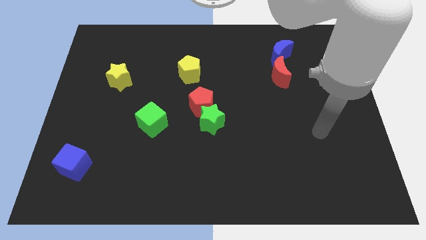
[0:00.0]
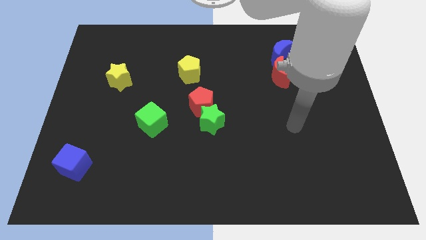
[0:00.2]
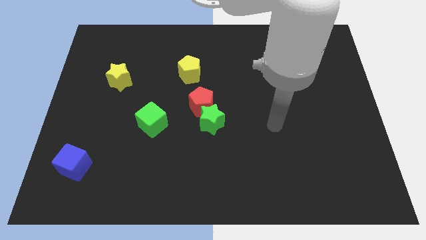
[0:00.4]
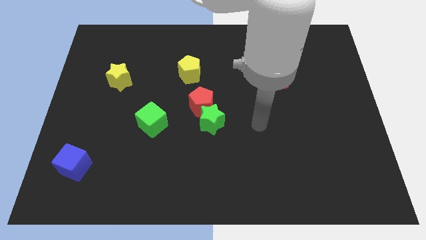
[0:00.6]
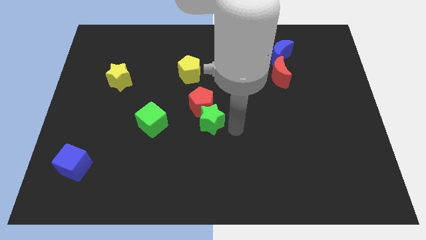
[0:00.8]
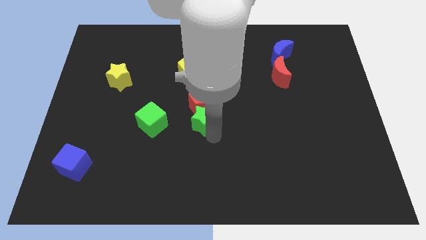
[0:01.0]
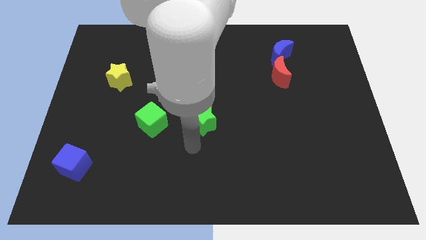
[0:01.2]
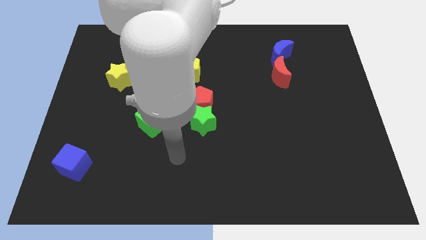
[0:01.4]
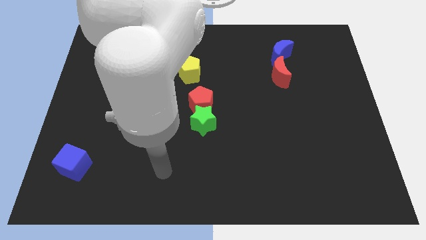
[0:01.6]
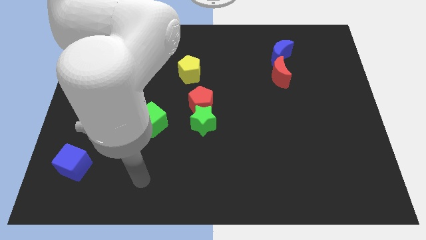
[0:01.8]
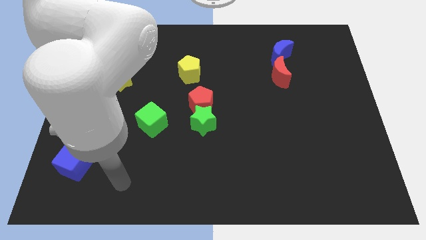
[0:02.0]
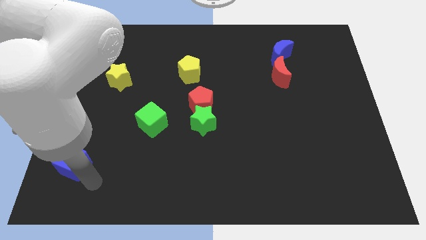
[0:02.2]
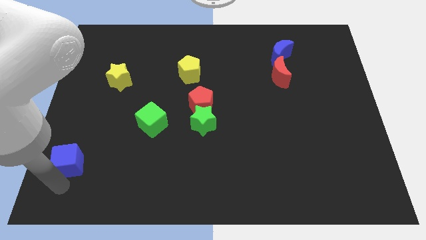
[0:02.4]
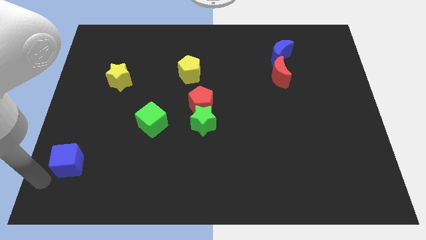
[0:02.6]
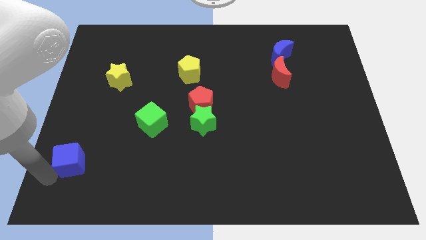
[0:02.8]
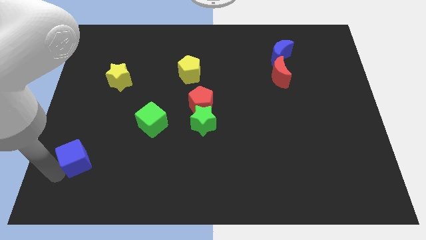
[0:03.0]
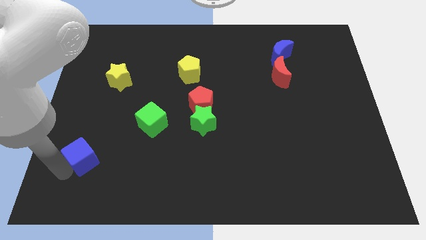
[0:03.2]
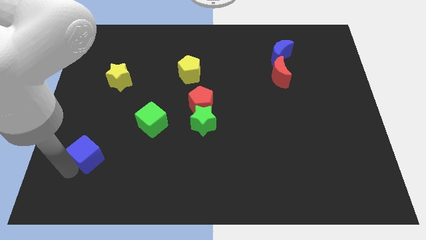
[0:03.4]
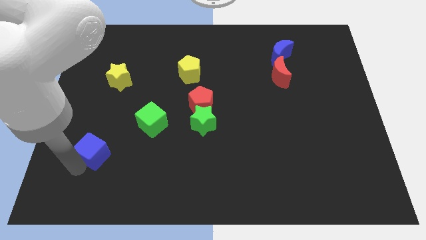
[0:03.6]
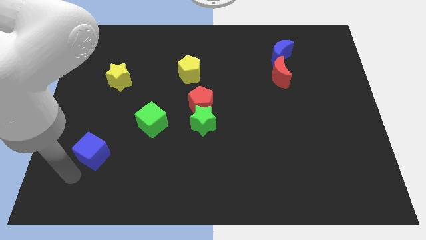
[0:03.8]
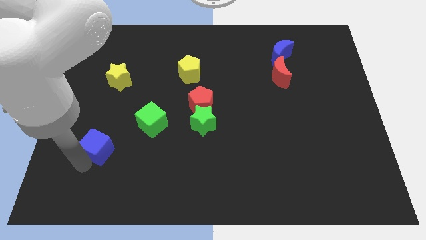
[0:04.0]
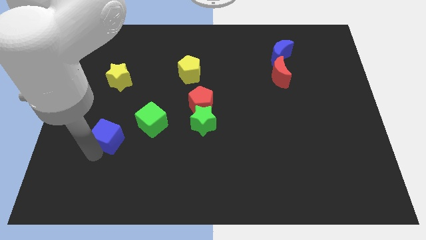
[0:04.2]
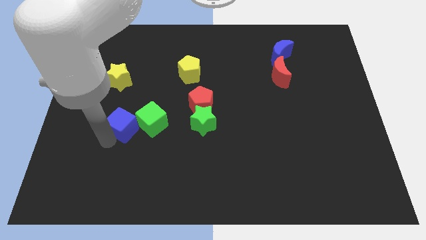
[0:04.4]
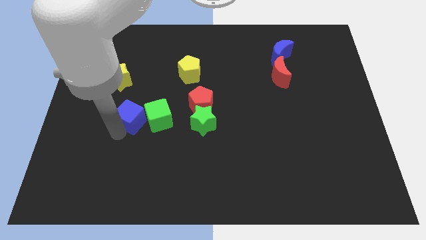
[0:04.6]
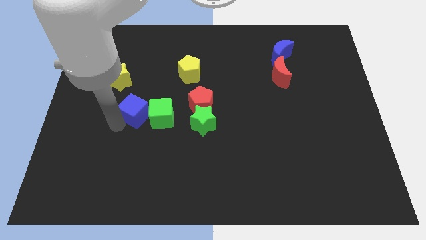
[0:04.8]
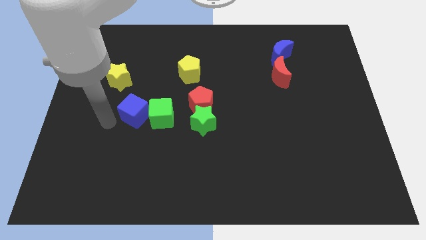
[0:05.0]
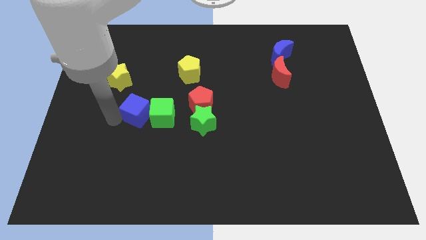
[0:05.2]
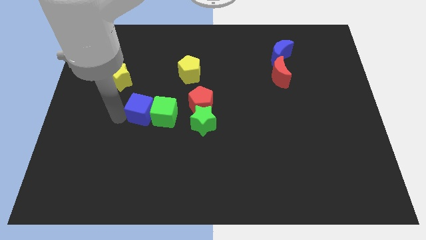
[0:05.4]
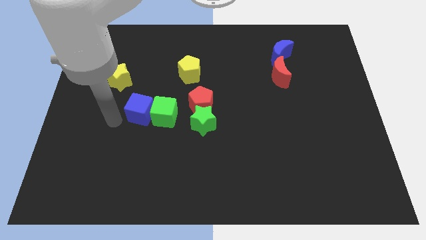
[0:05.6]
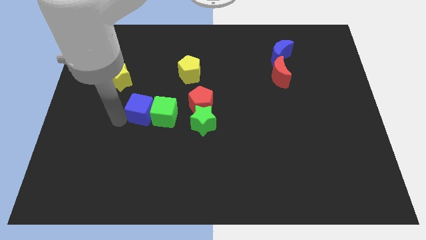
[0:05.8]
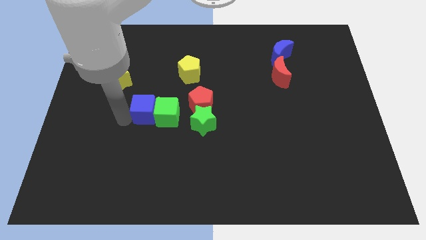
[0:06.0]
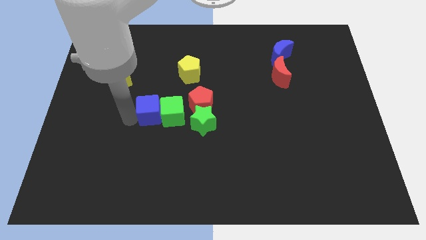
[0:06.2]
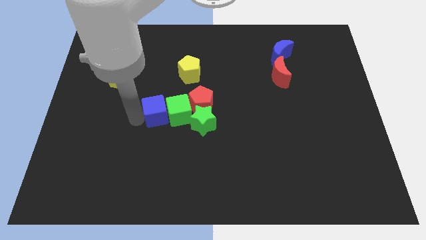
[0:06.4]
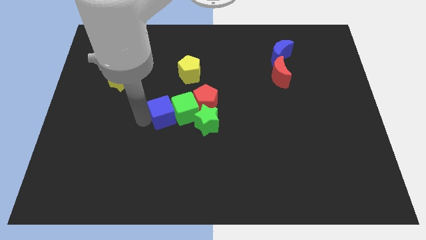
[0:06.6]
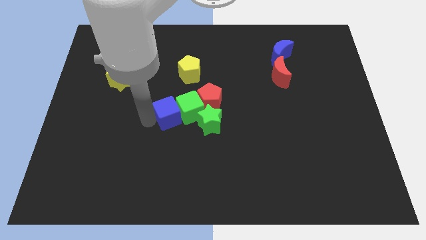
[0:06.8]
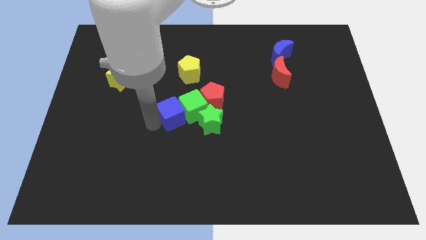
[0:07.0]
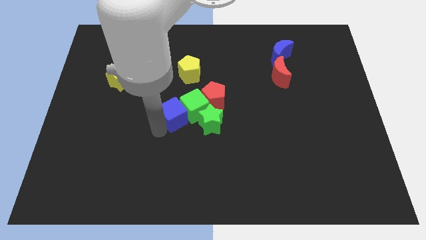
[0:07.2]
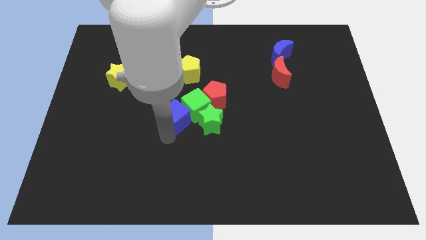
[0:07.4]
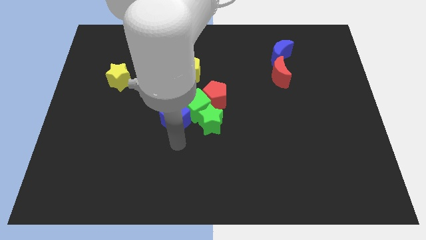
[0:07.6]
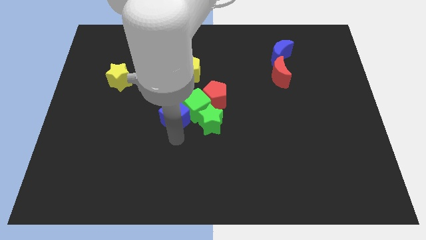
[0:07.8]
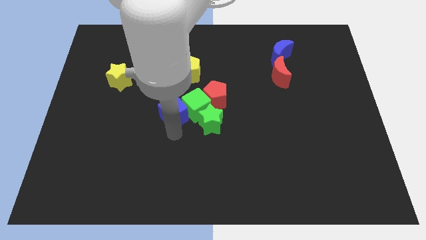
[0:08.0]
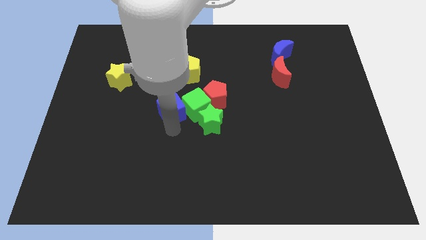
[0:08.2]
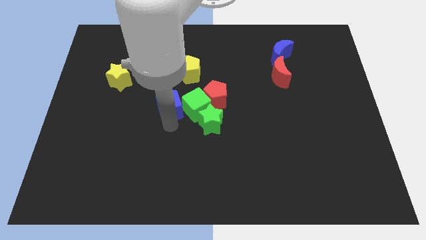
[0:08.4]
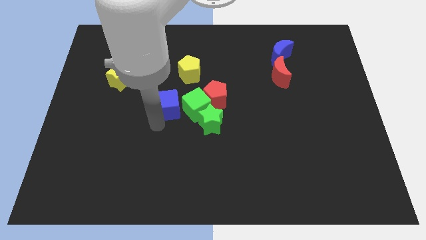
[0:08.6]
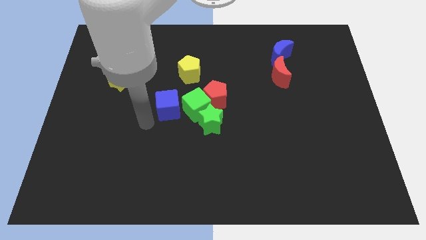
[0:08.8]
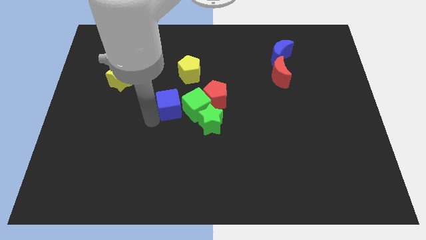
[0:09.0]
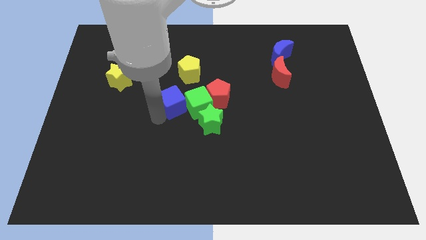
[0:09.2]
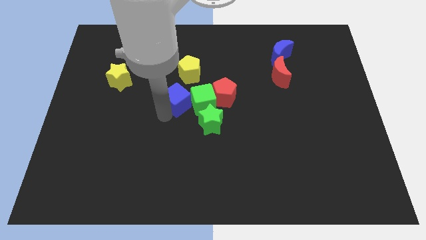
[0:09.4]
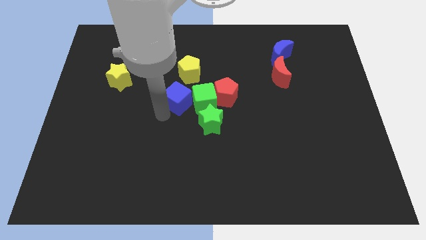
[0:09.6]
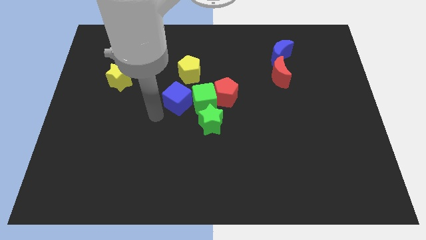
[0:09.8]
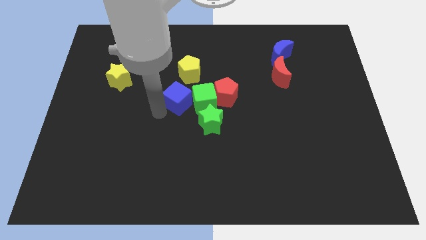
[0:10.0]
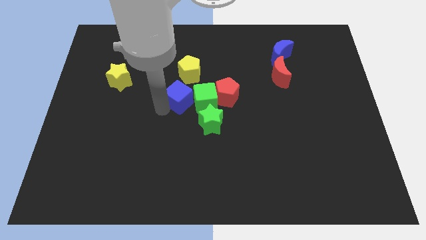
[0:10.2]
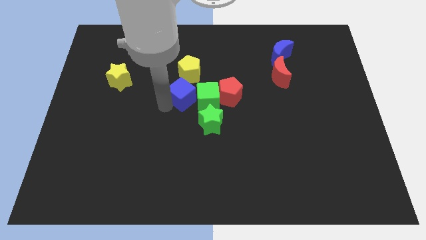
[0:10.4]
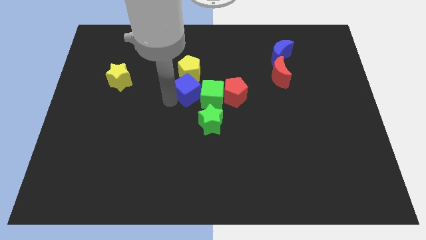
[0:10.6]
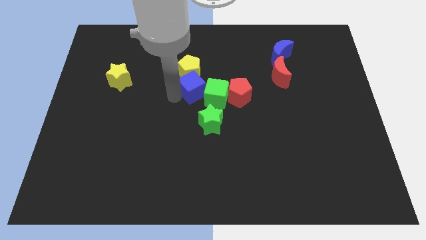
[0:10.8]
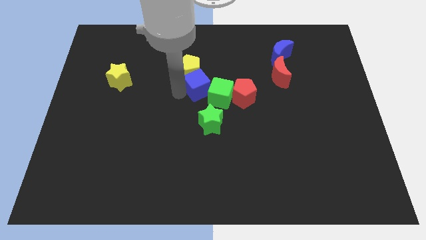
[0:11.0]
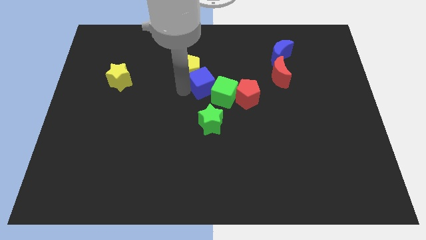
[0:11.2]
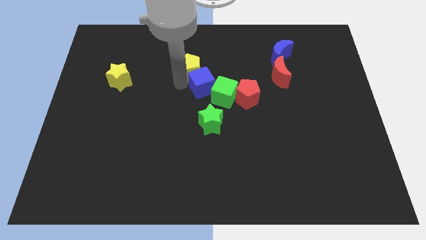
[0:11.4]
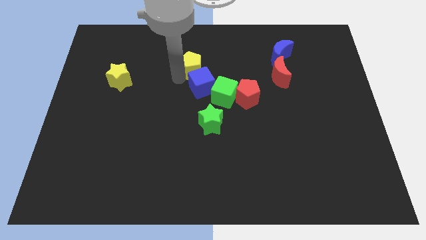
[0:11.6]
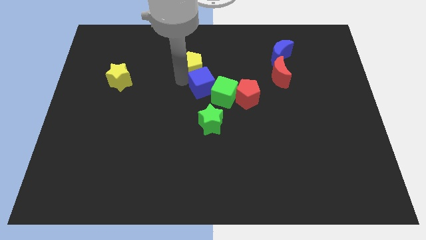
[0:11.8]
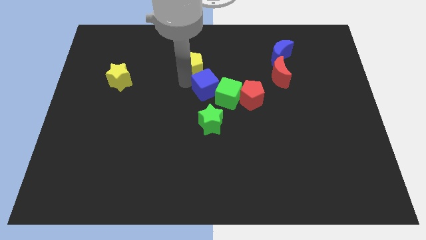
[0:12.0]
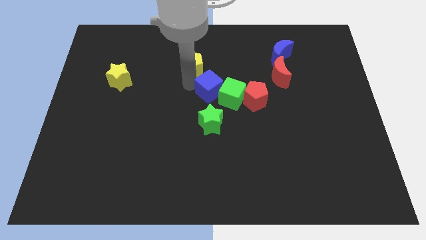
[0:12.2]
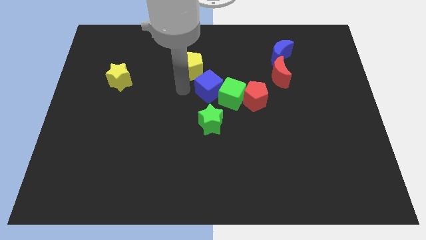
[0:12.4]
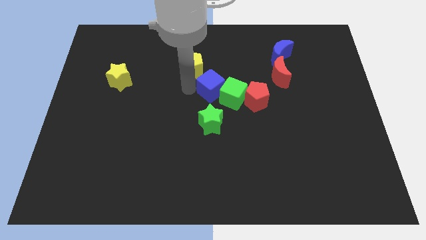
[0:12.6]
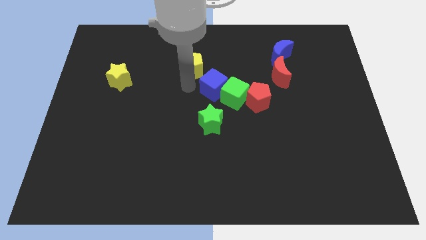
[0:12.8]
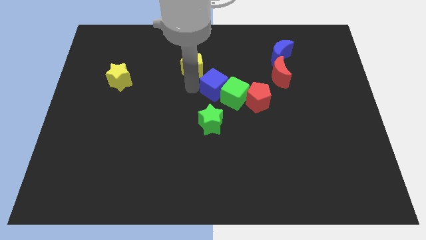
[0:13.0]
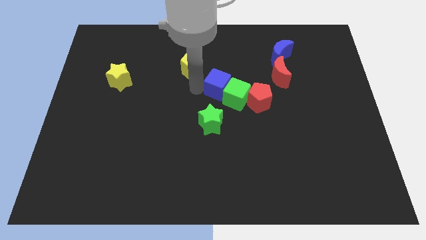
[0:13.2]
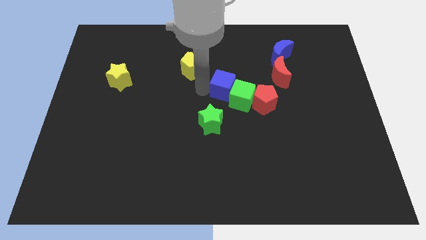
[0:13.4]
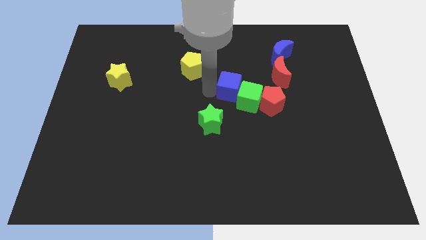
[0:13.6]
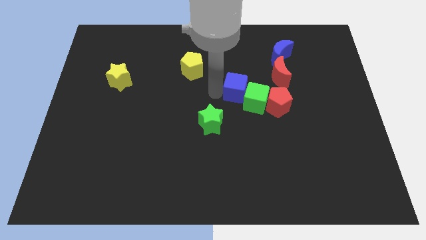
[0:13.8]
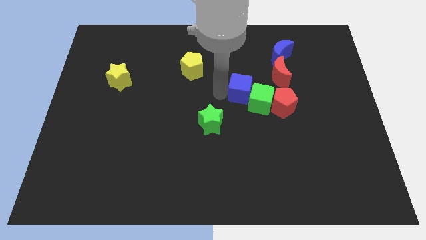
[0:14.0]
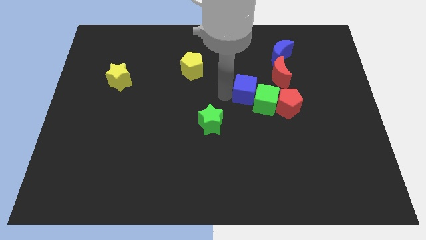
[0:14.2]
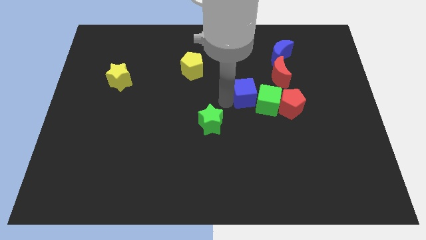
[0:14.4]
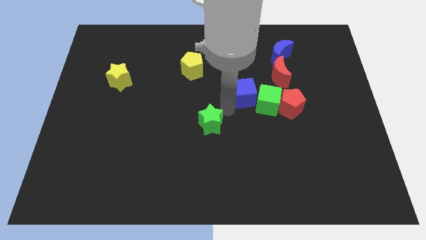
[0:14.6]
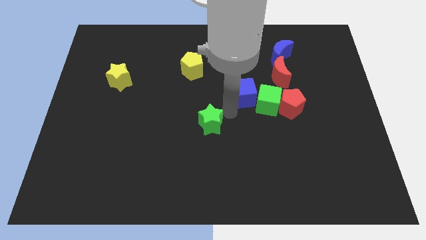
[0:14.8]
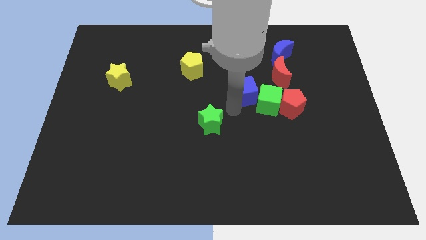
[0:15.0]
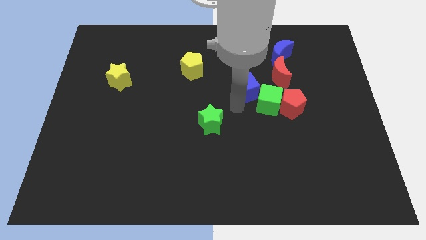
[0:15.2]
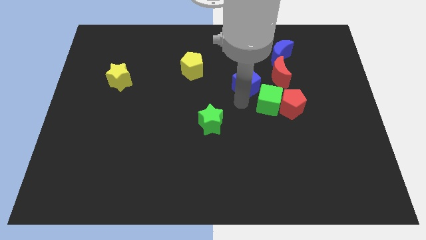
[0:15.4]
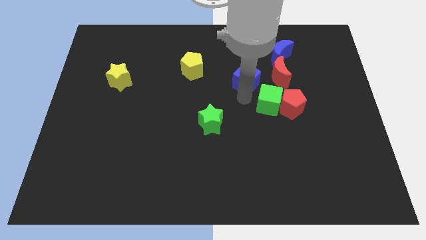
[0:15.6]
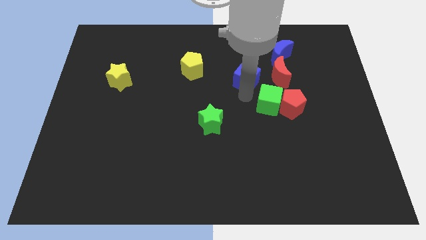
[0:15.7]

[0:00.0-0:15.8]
push the blue cube diagonally down and to the left of the blue moon
